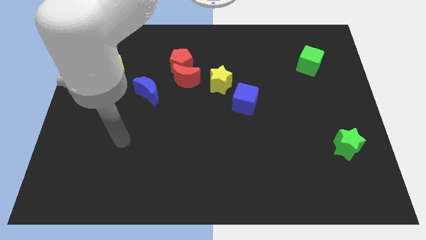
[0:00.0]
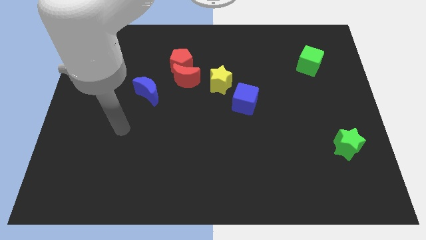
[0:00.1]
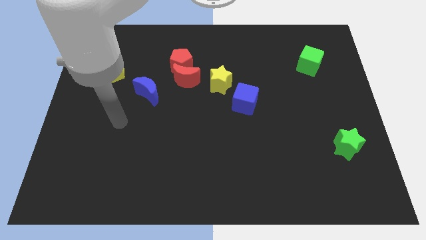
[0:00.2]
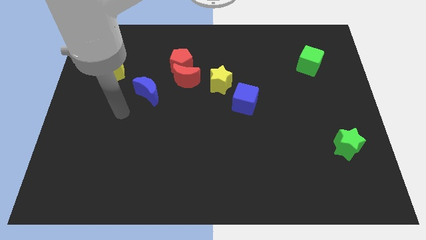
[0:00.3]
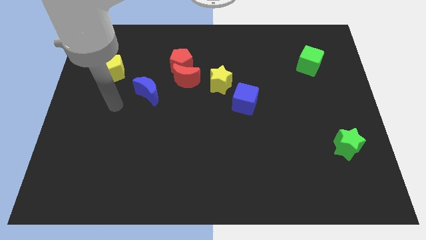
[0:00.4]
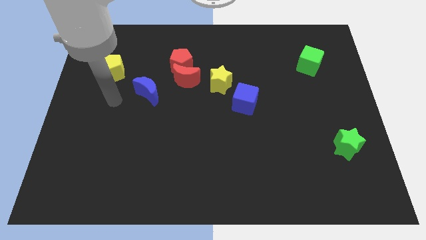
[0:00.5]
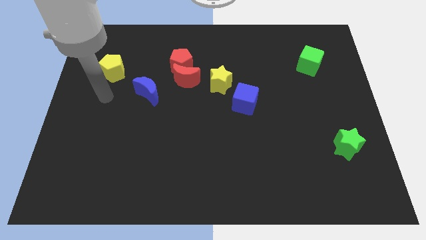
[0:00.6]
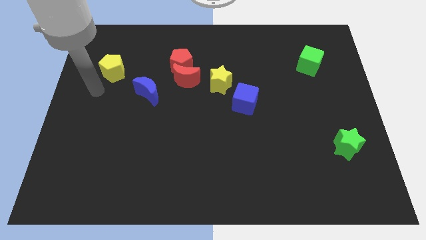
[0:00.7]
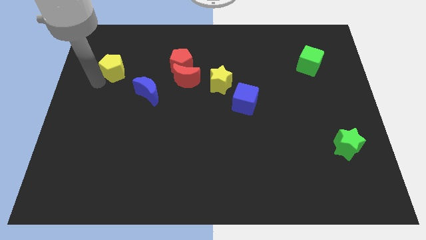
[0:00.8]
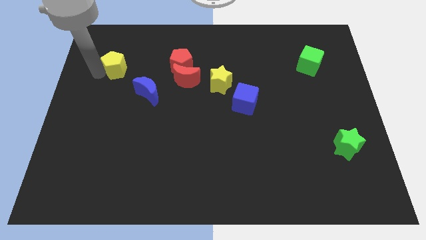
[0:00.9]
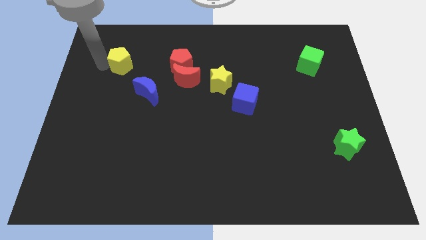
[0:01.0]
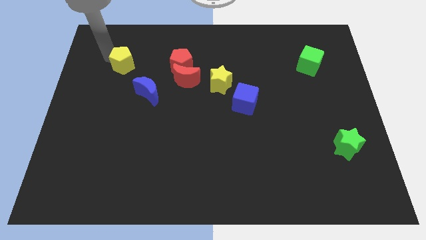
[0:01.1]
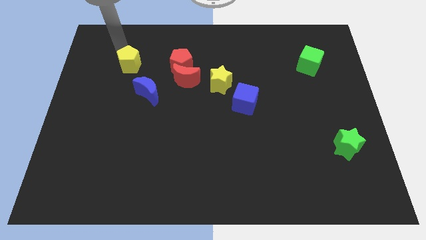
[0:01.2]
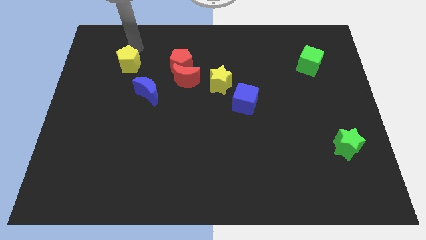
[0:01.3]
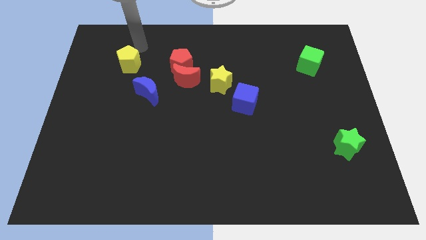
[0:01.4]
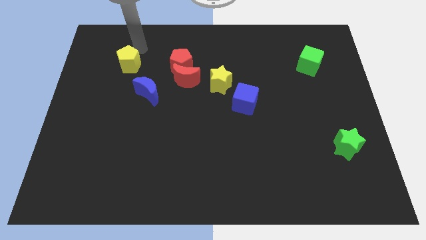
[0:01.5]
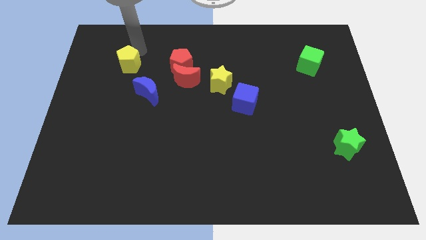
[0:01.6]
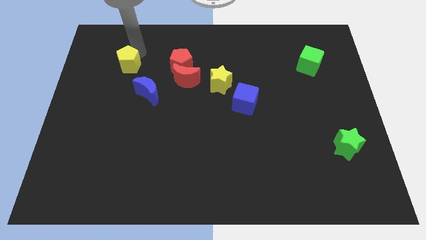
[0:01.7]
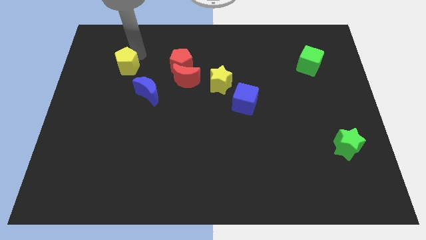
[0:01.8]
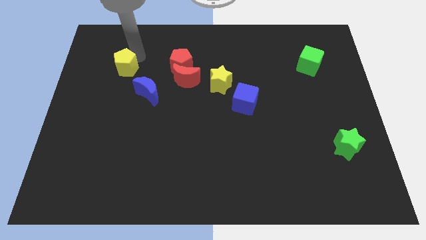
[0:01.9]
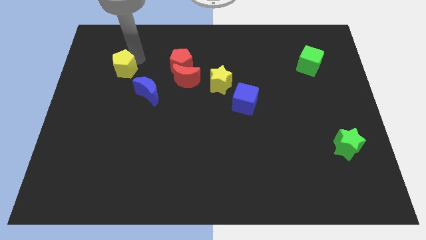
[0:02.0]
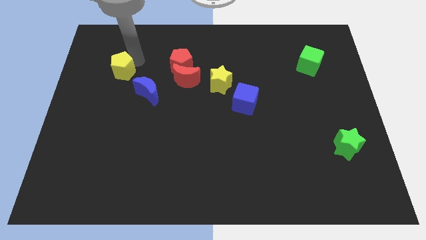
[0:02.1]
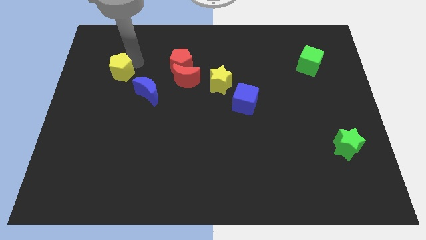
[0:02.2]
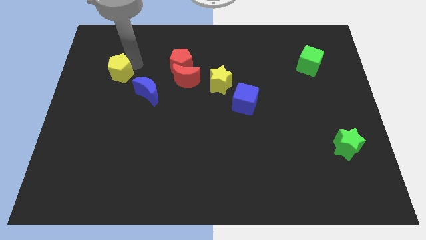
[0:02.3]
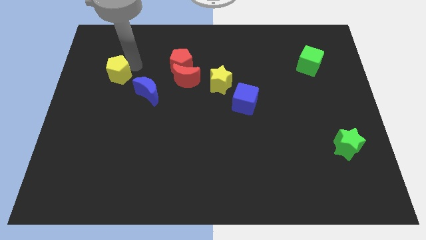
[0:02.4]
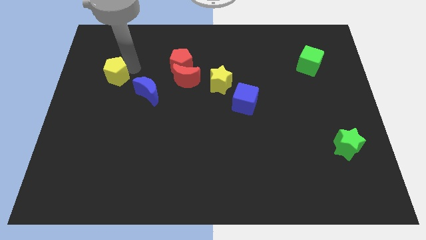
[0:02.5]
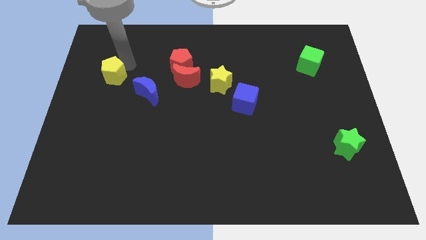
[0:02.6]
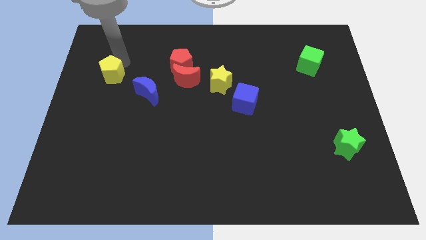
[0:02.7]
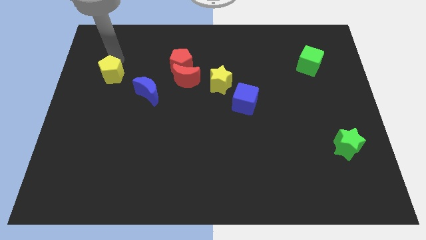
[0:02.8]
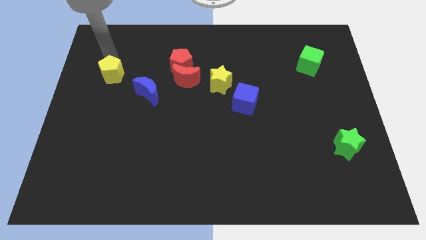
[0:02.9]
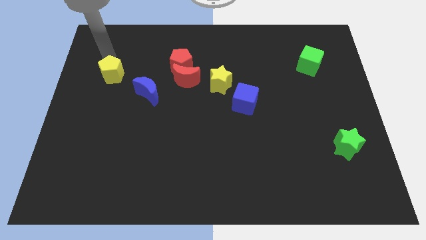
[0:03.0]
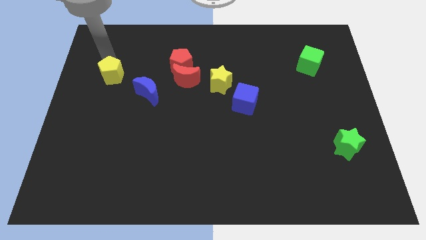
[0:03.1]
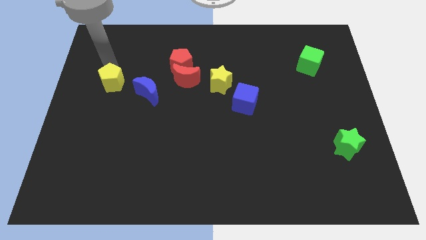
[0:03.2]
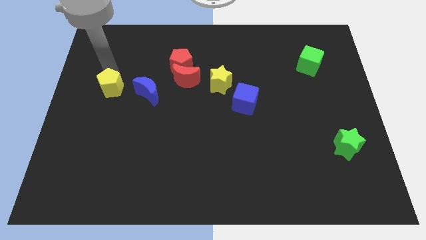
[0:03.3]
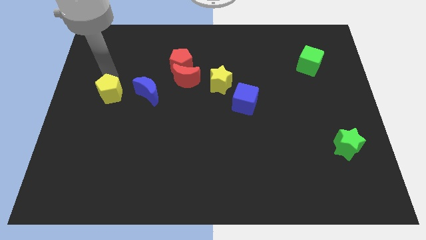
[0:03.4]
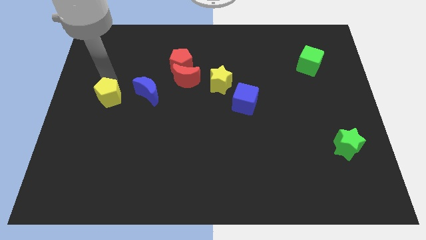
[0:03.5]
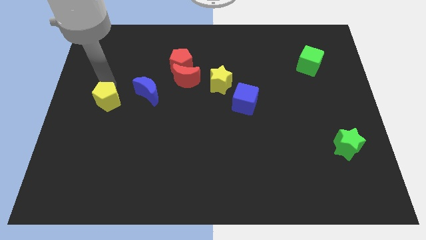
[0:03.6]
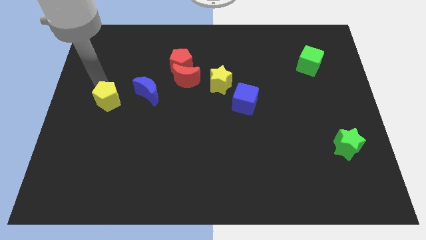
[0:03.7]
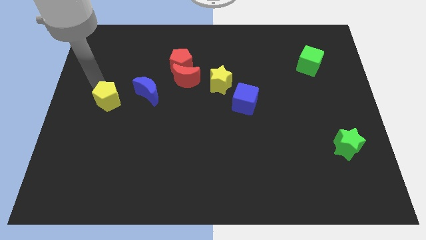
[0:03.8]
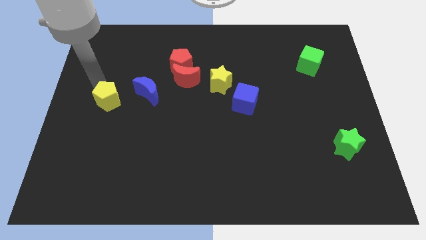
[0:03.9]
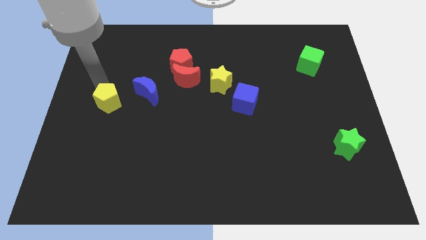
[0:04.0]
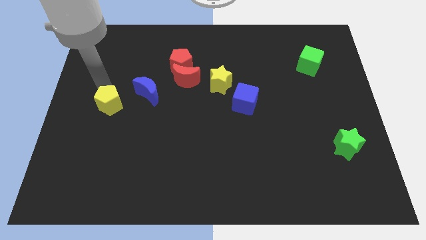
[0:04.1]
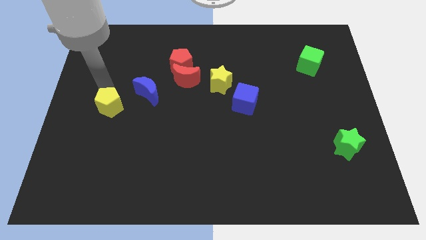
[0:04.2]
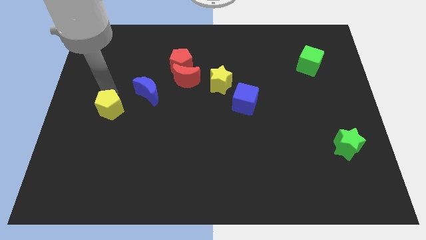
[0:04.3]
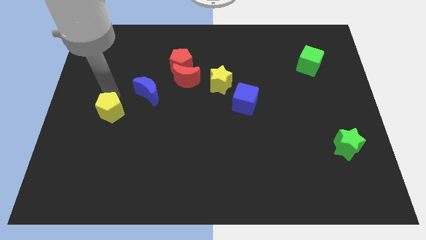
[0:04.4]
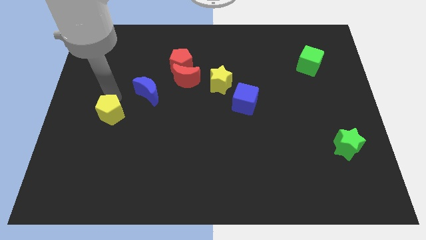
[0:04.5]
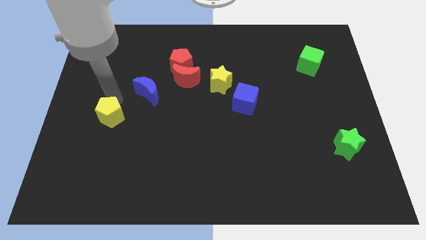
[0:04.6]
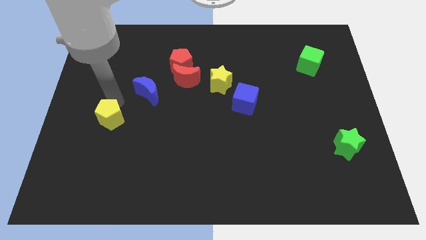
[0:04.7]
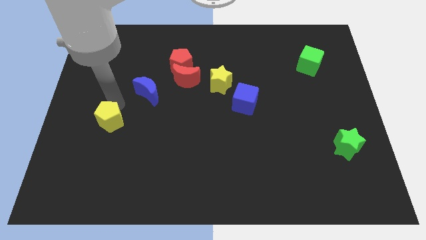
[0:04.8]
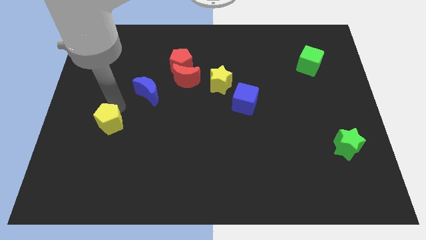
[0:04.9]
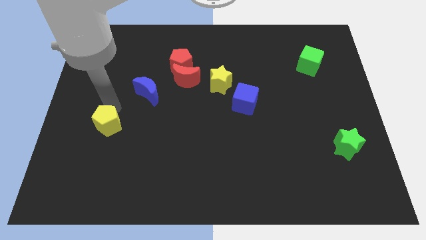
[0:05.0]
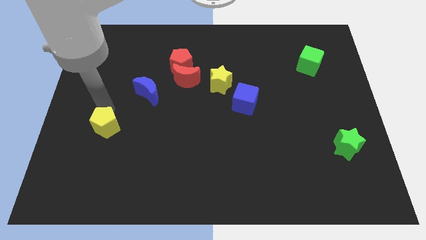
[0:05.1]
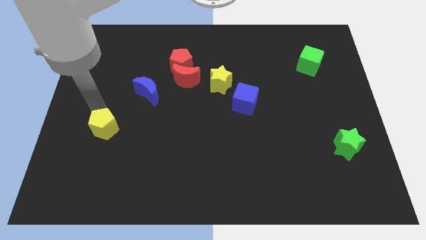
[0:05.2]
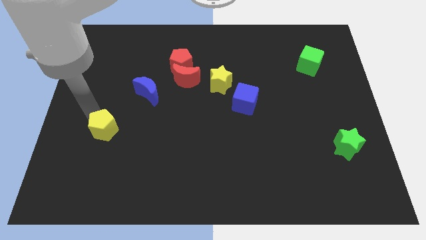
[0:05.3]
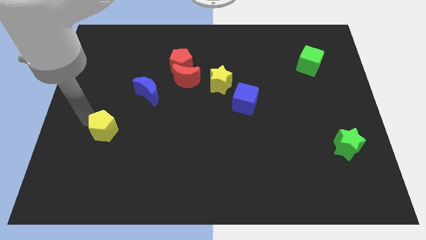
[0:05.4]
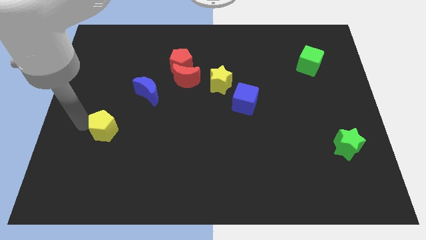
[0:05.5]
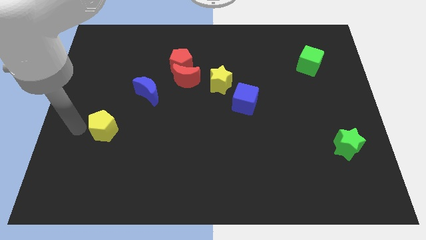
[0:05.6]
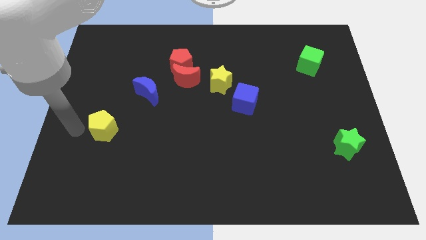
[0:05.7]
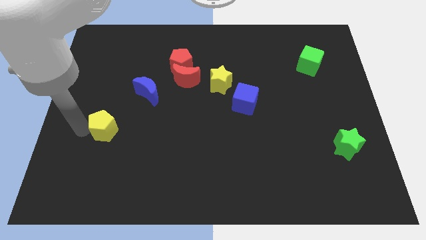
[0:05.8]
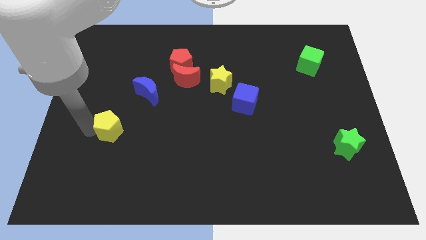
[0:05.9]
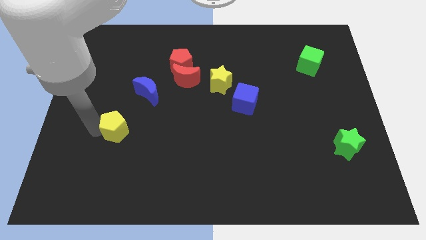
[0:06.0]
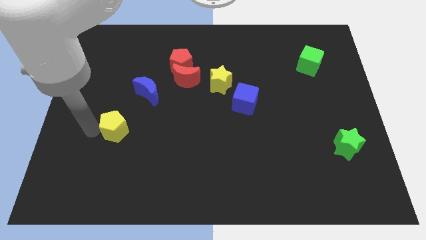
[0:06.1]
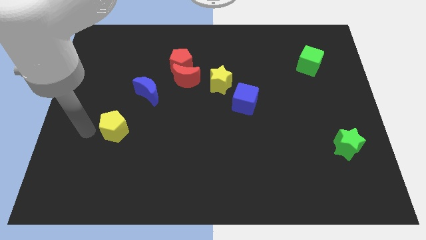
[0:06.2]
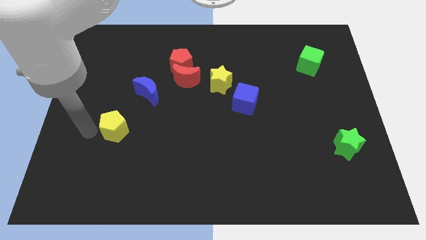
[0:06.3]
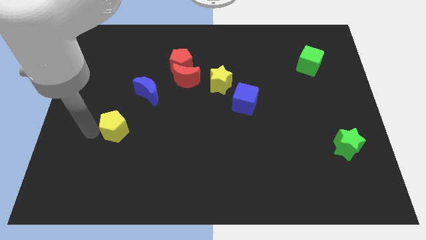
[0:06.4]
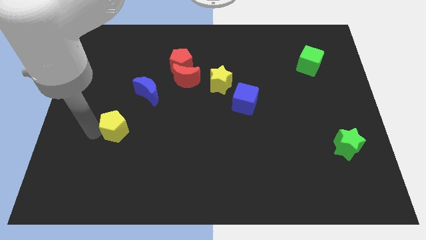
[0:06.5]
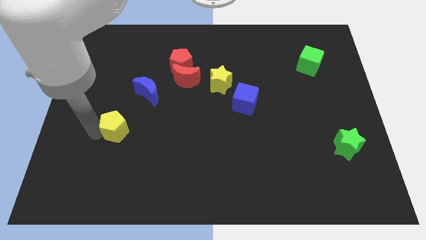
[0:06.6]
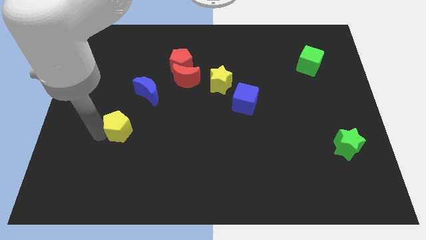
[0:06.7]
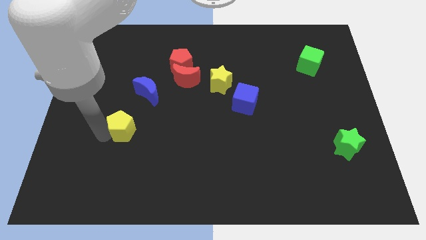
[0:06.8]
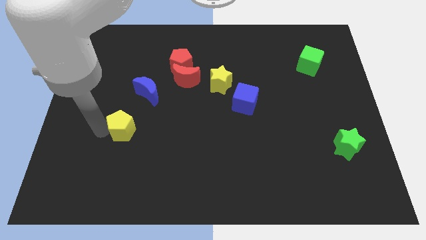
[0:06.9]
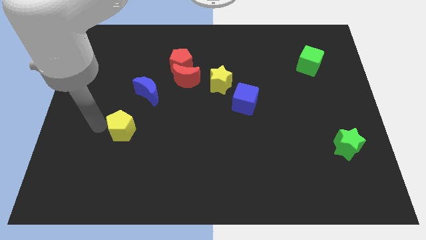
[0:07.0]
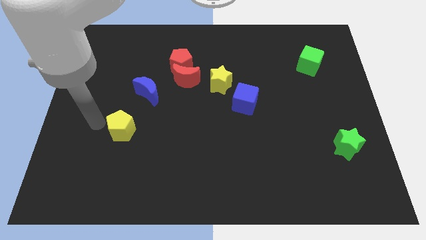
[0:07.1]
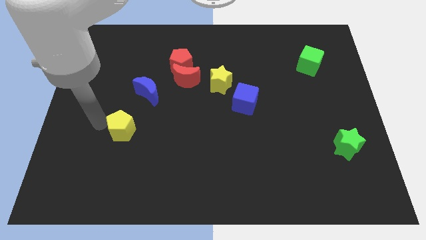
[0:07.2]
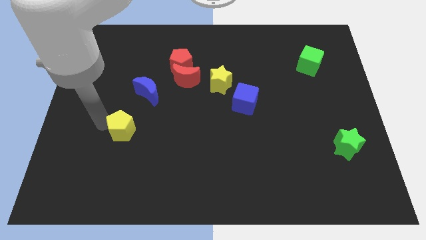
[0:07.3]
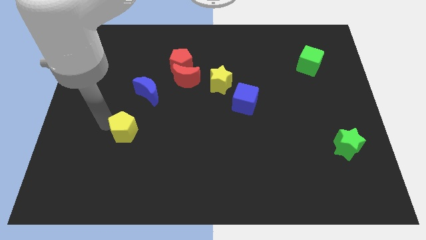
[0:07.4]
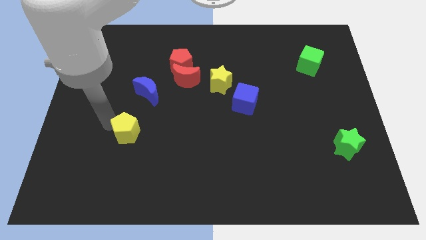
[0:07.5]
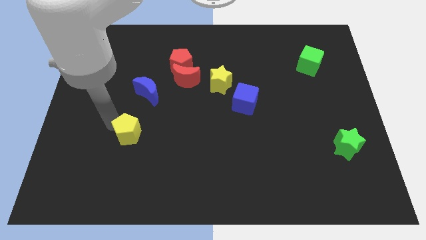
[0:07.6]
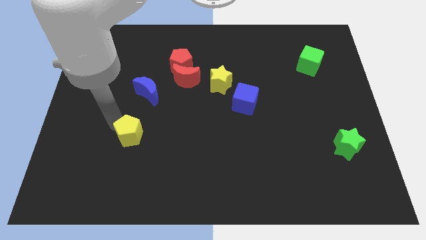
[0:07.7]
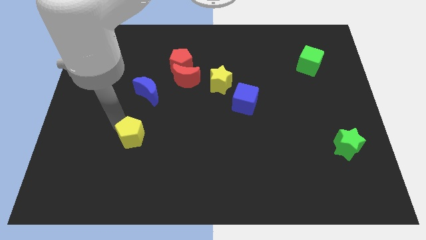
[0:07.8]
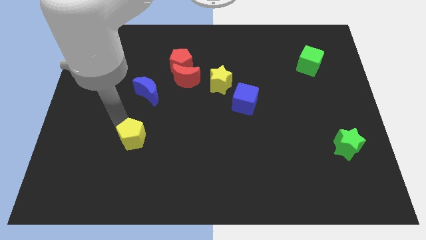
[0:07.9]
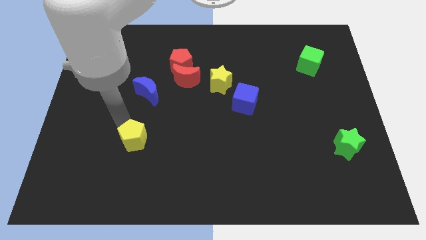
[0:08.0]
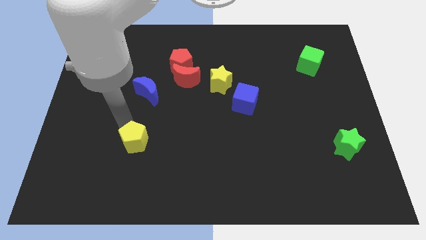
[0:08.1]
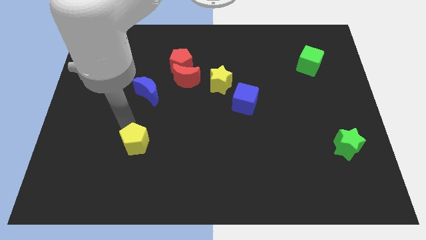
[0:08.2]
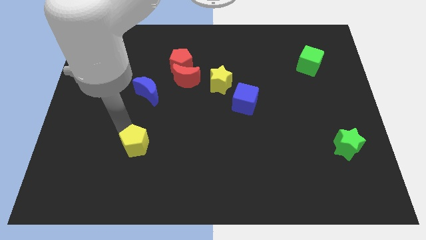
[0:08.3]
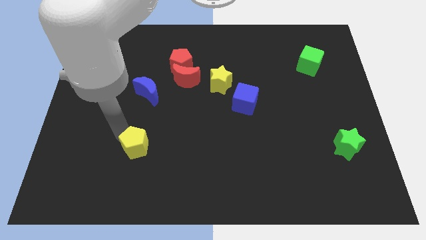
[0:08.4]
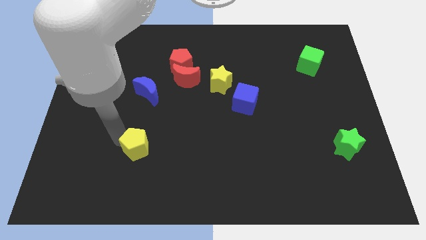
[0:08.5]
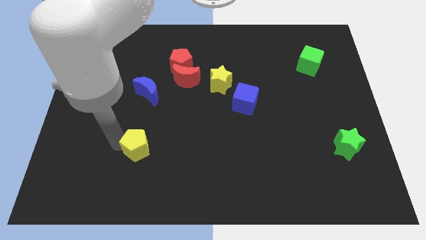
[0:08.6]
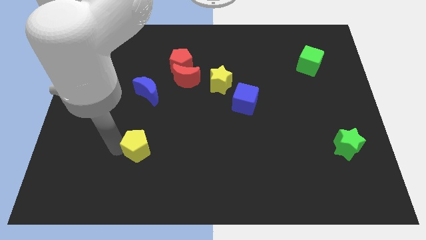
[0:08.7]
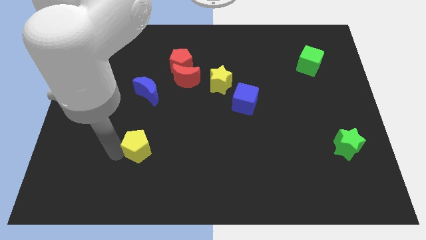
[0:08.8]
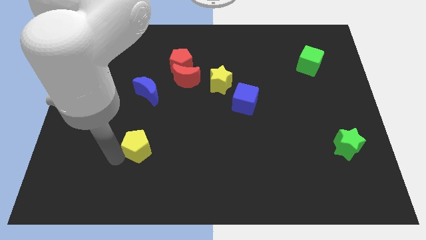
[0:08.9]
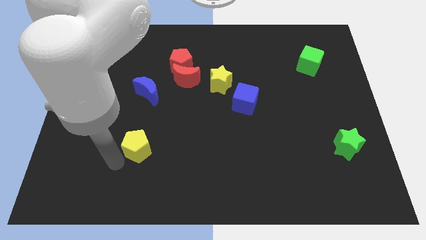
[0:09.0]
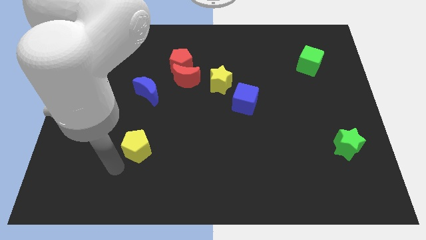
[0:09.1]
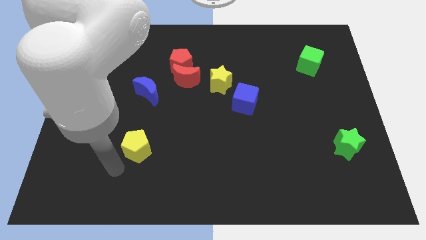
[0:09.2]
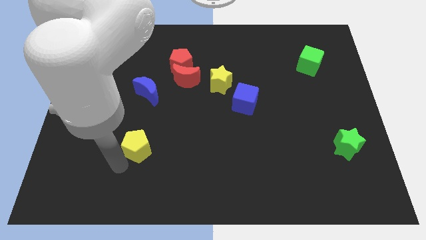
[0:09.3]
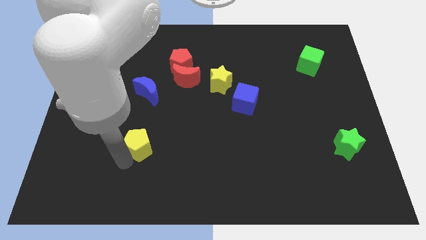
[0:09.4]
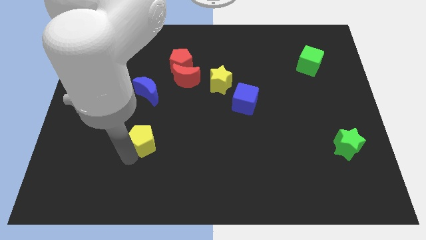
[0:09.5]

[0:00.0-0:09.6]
slide the yellow pentagon downwards and to the right diagonally
